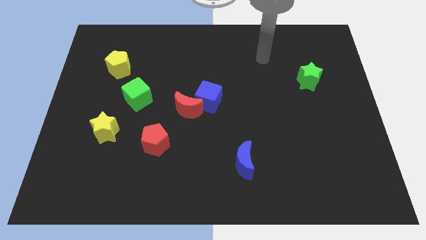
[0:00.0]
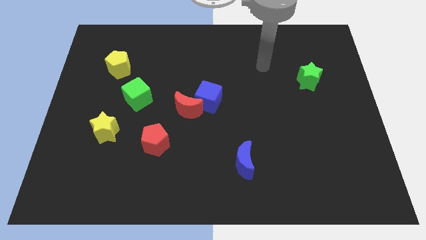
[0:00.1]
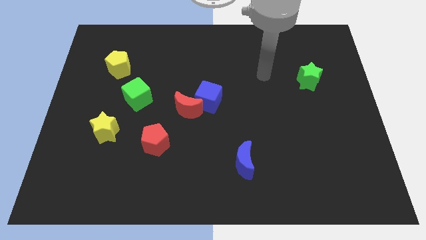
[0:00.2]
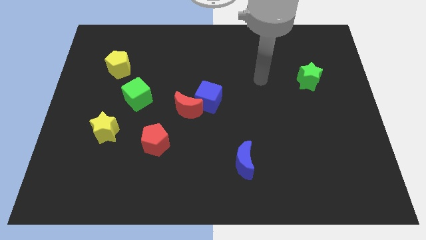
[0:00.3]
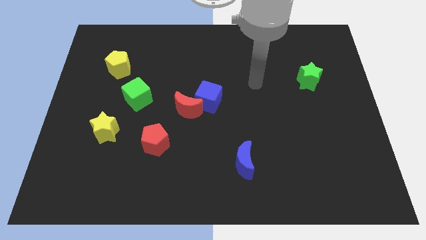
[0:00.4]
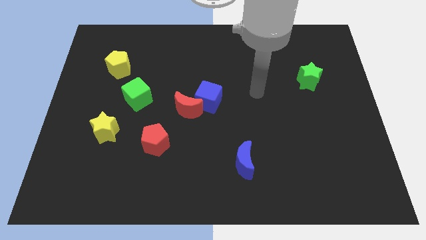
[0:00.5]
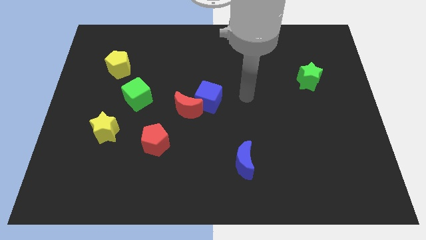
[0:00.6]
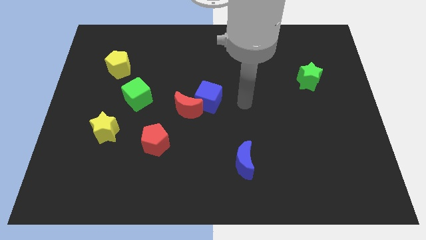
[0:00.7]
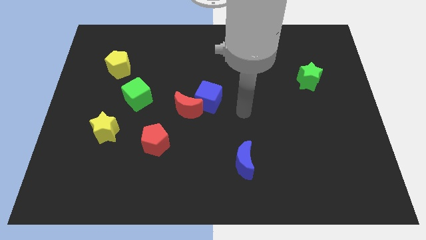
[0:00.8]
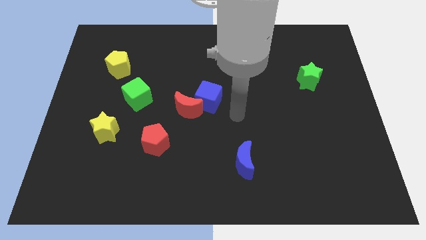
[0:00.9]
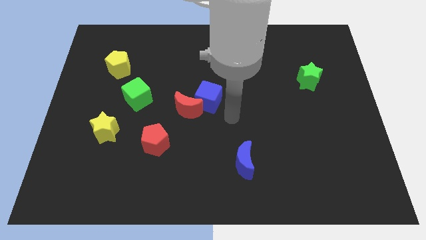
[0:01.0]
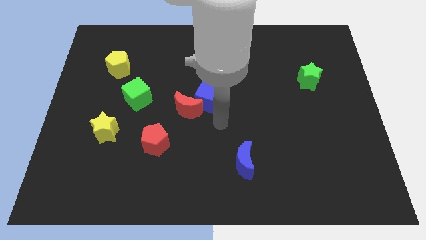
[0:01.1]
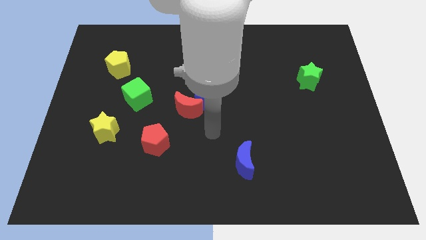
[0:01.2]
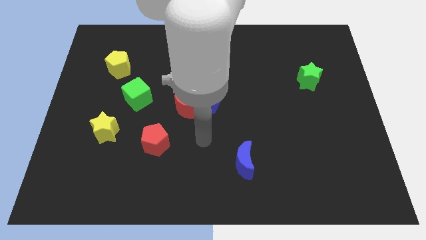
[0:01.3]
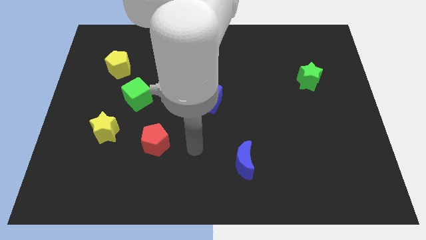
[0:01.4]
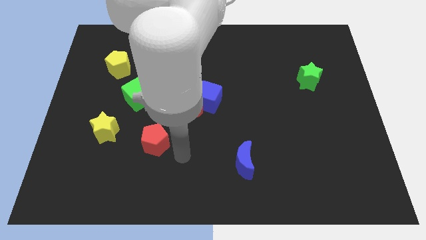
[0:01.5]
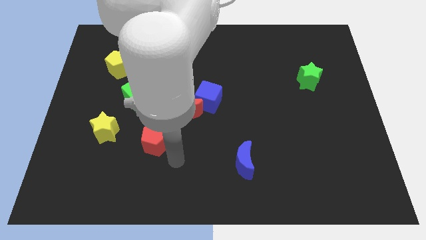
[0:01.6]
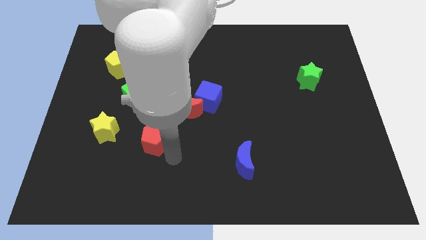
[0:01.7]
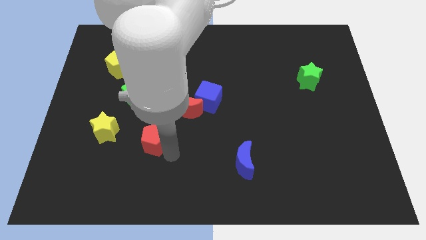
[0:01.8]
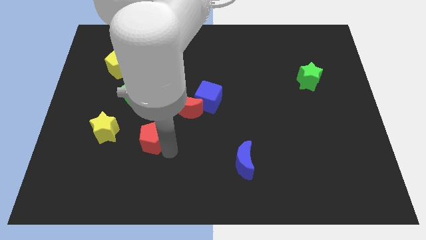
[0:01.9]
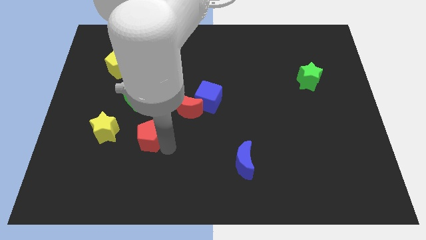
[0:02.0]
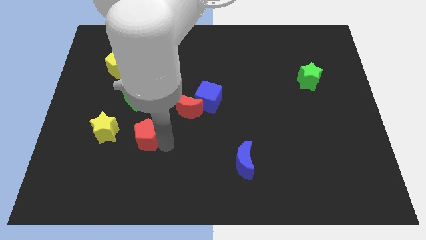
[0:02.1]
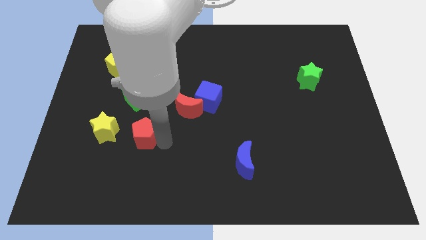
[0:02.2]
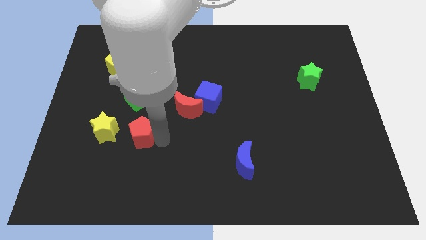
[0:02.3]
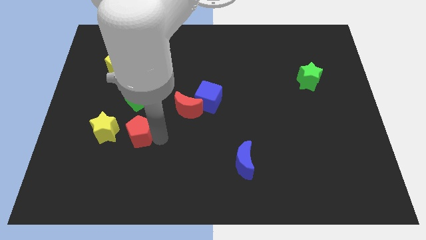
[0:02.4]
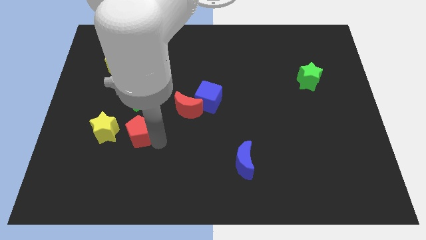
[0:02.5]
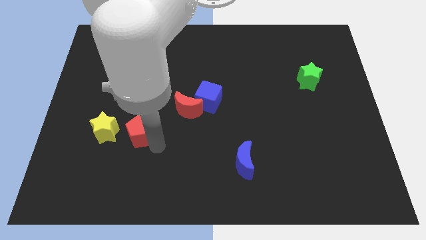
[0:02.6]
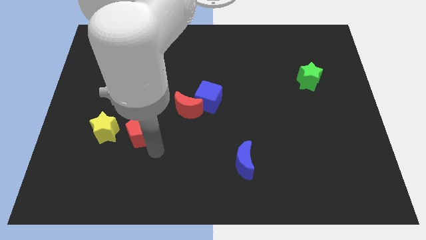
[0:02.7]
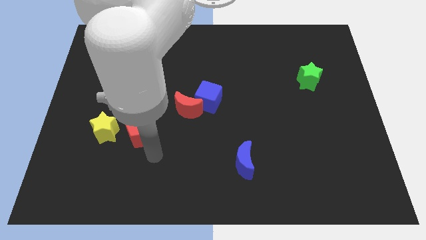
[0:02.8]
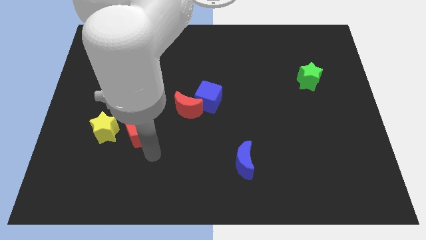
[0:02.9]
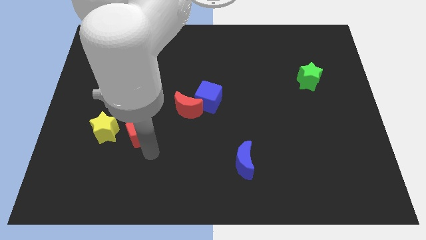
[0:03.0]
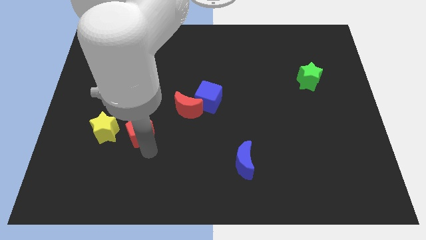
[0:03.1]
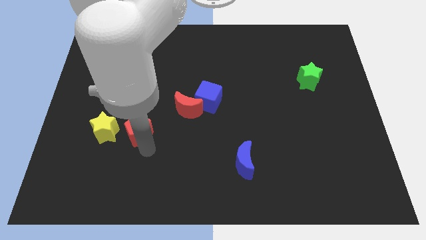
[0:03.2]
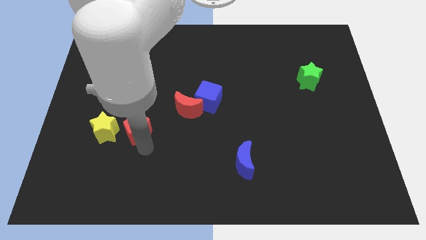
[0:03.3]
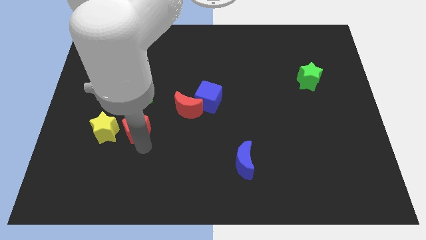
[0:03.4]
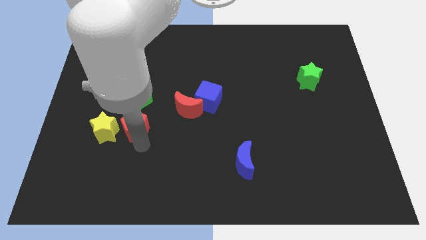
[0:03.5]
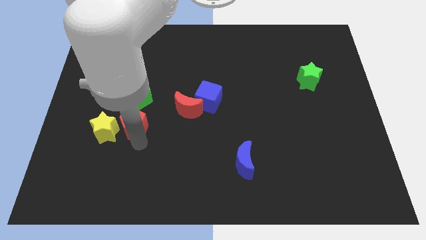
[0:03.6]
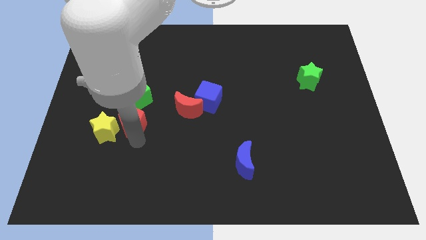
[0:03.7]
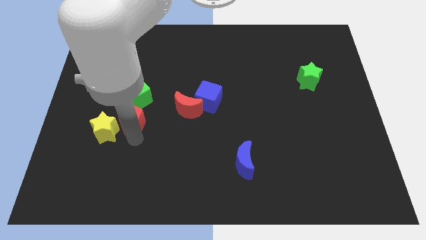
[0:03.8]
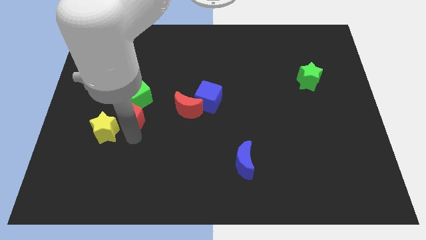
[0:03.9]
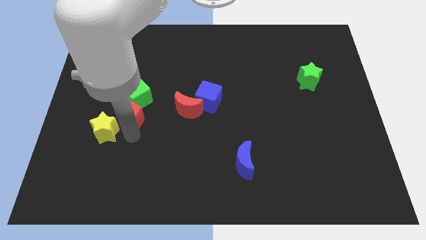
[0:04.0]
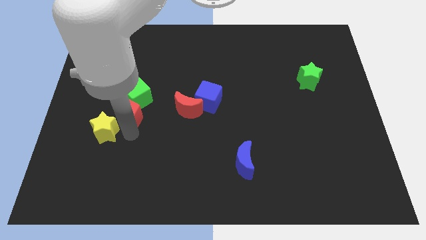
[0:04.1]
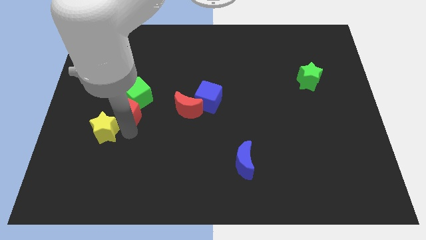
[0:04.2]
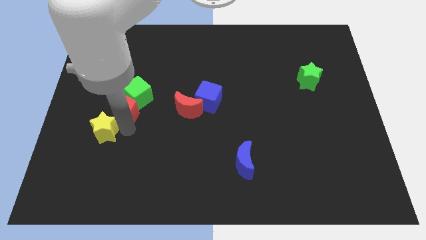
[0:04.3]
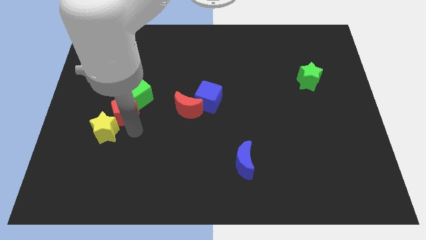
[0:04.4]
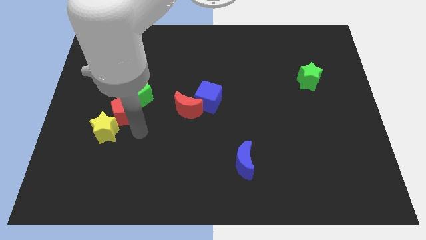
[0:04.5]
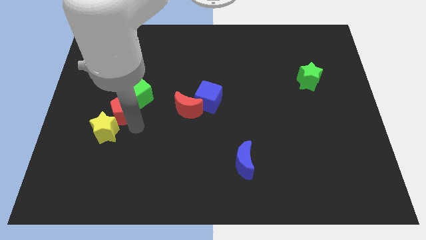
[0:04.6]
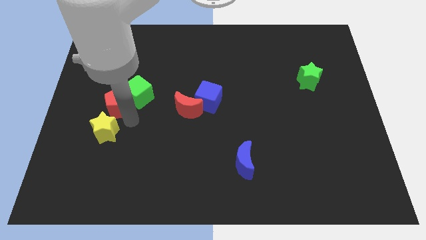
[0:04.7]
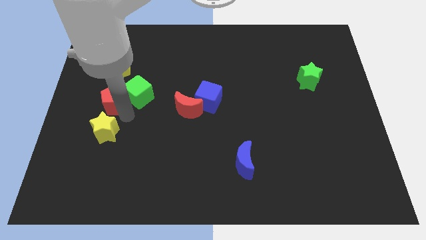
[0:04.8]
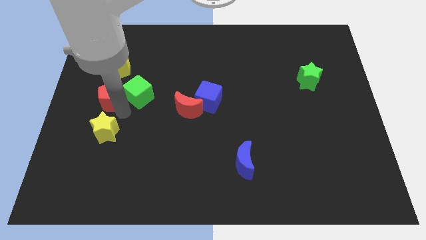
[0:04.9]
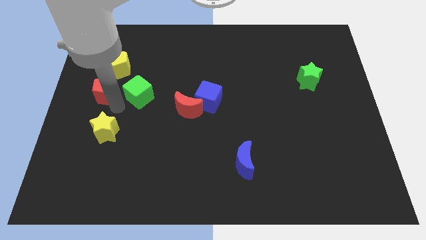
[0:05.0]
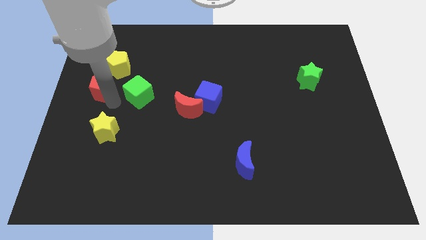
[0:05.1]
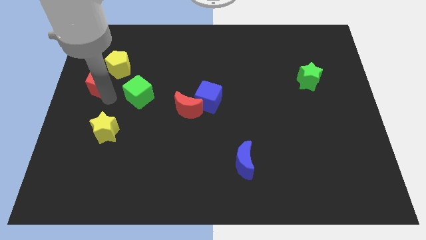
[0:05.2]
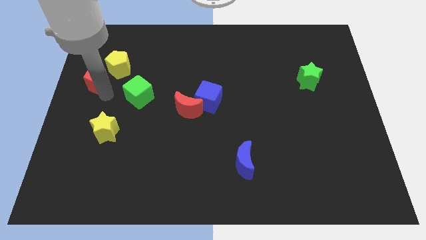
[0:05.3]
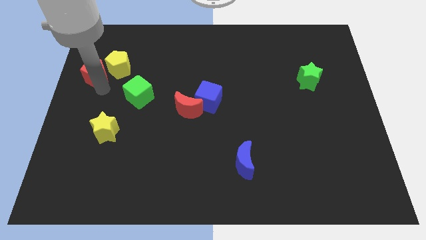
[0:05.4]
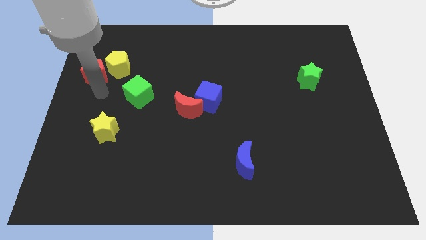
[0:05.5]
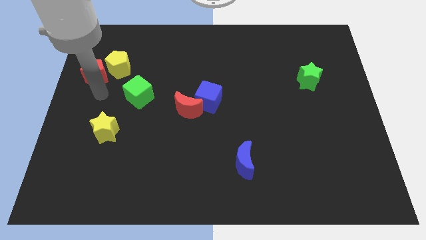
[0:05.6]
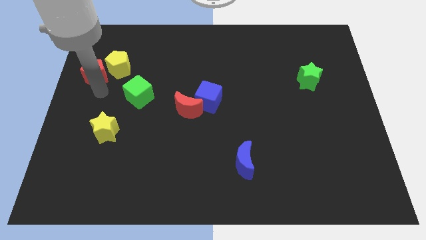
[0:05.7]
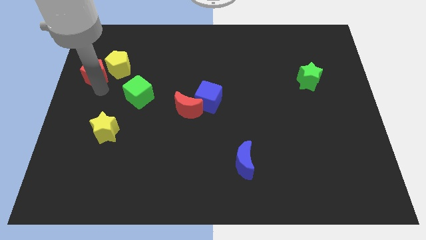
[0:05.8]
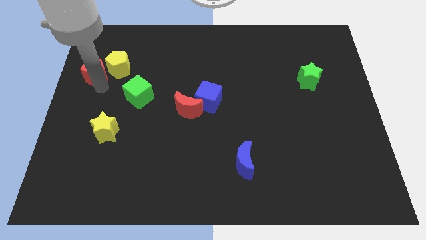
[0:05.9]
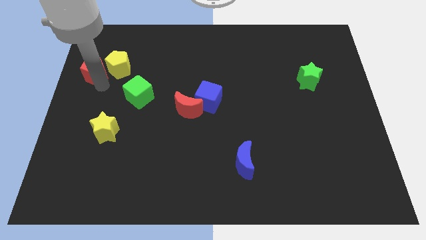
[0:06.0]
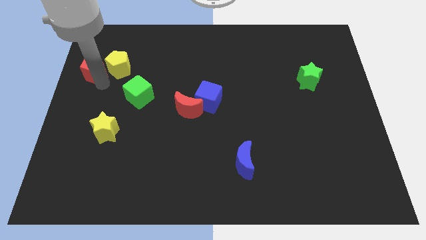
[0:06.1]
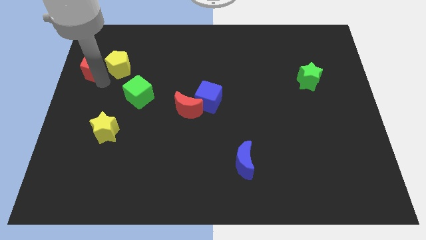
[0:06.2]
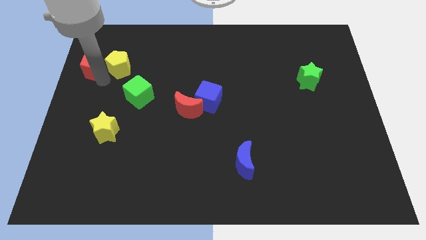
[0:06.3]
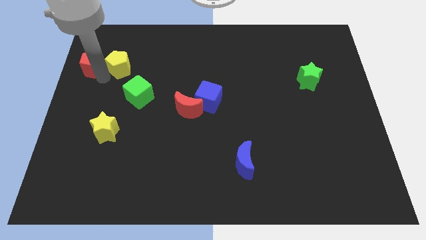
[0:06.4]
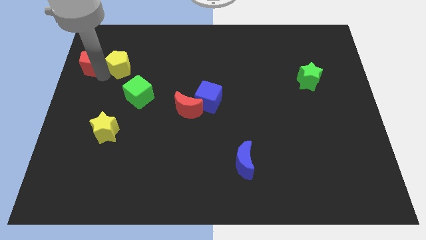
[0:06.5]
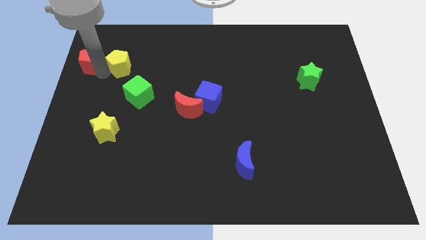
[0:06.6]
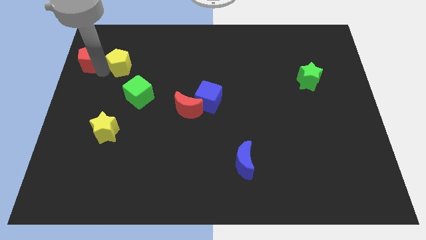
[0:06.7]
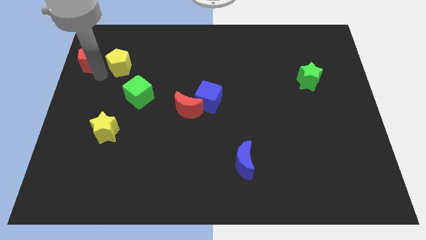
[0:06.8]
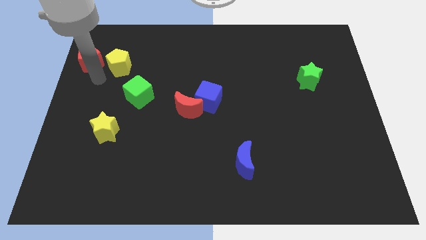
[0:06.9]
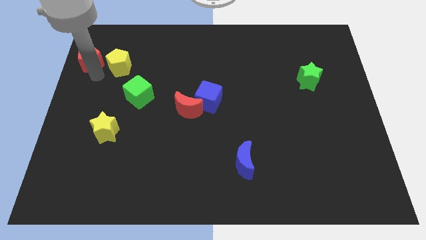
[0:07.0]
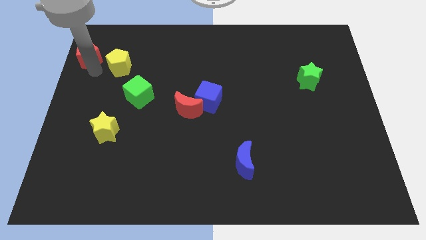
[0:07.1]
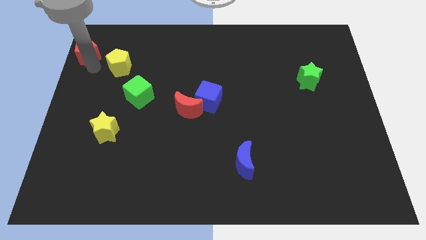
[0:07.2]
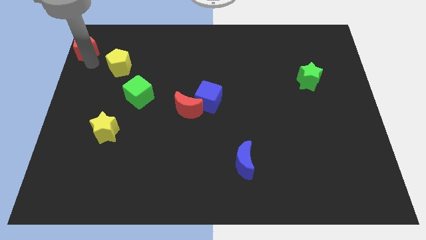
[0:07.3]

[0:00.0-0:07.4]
move the red pentagon to the top left of the board

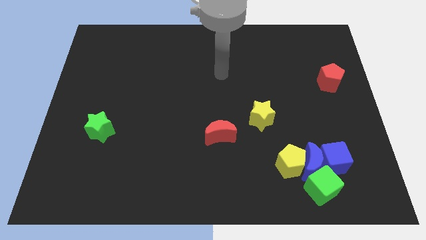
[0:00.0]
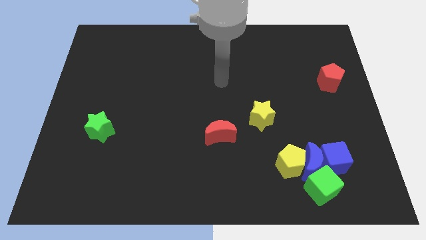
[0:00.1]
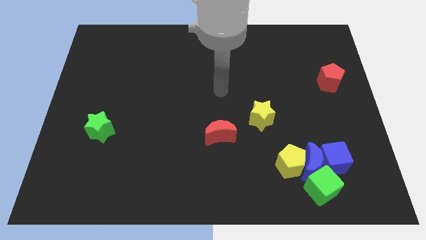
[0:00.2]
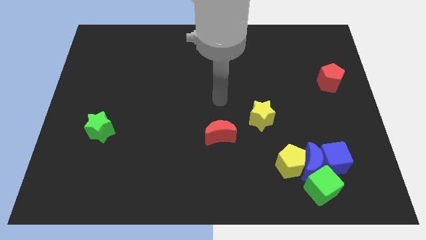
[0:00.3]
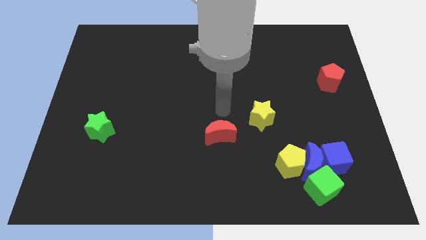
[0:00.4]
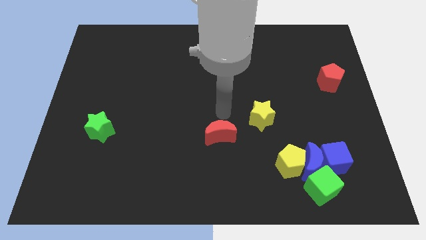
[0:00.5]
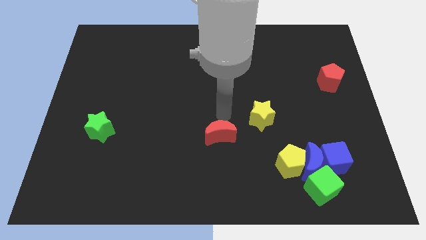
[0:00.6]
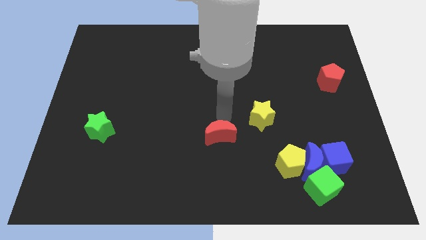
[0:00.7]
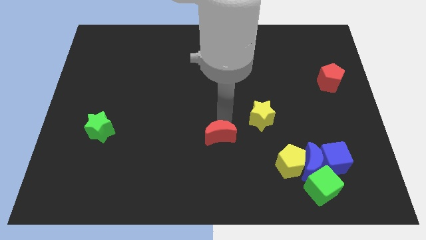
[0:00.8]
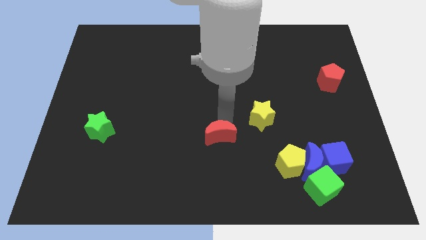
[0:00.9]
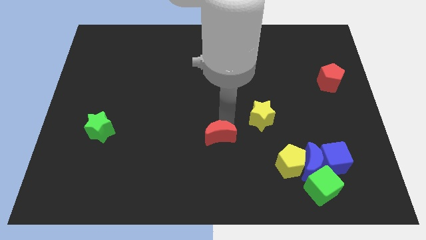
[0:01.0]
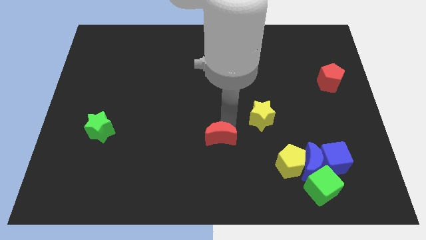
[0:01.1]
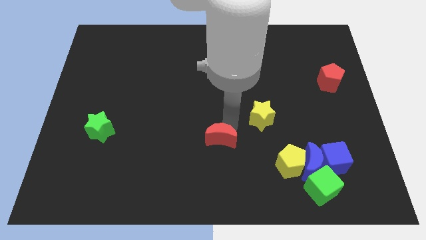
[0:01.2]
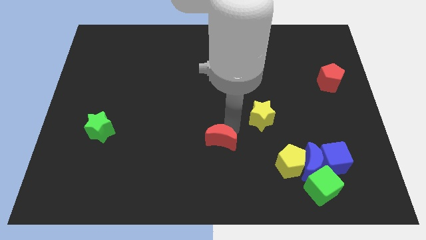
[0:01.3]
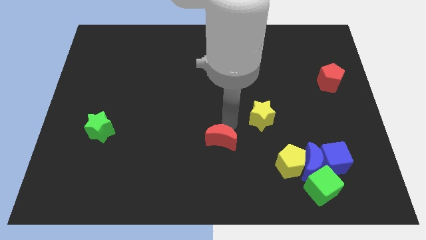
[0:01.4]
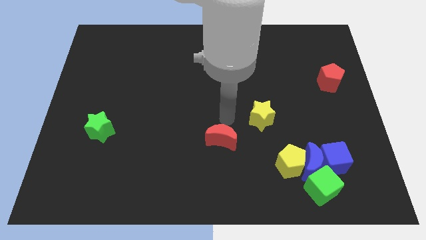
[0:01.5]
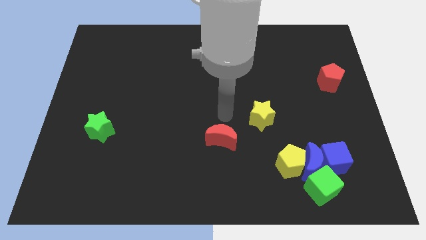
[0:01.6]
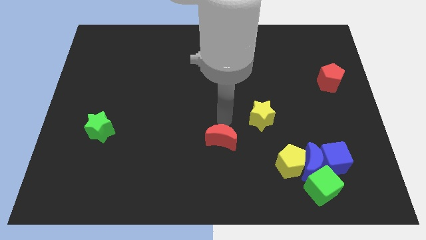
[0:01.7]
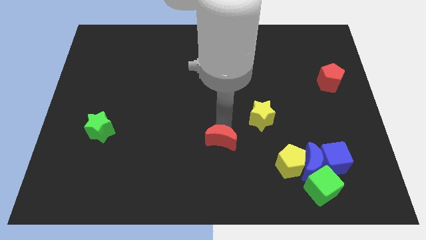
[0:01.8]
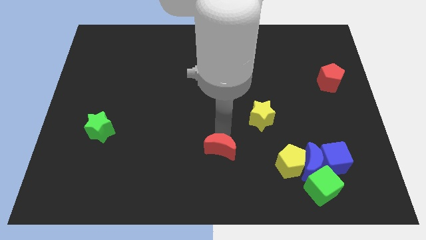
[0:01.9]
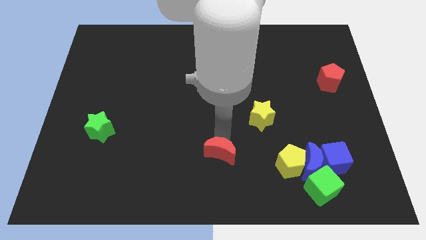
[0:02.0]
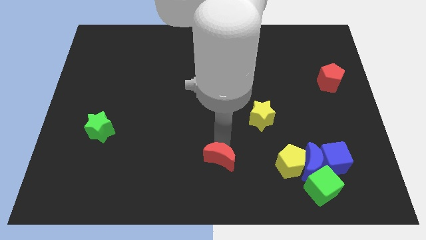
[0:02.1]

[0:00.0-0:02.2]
put the red moon to the bottom
